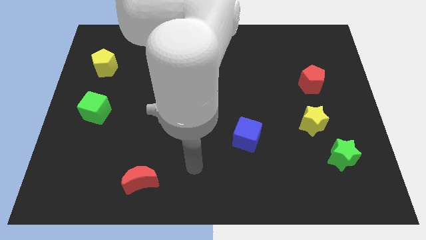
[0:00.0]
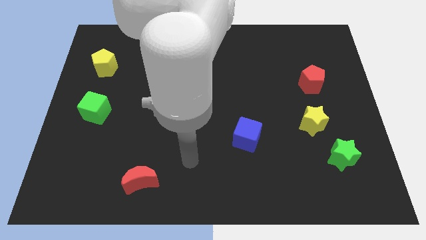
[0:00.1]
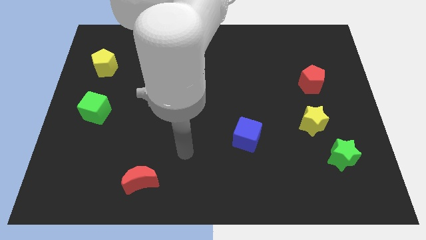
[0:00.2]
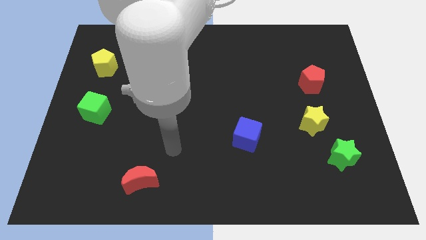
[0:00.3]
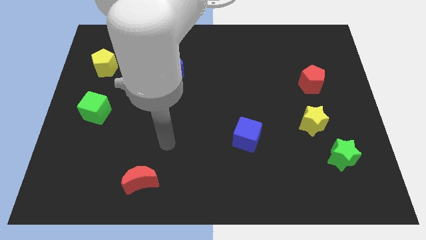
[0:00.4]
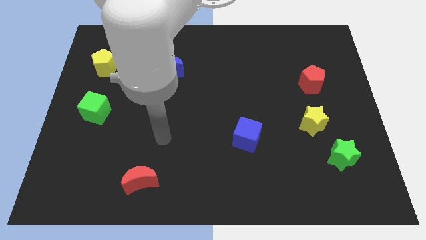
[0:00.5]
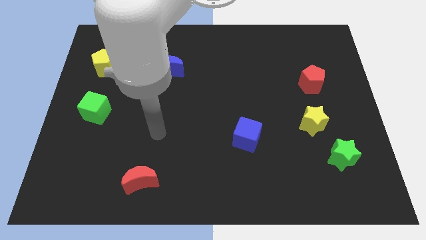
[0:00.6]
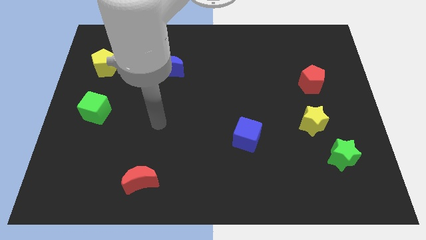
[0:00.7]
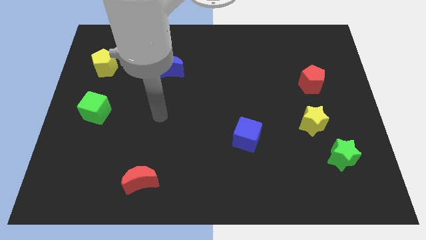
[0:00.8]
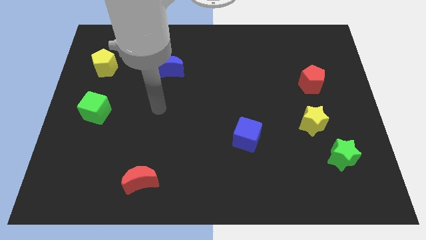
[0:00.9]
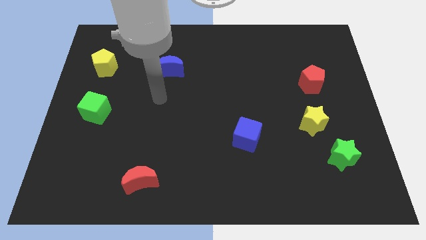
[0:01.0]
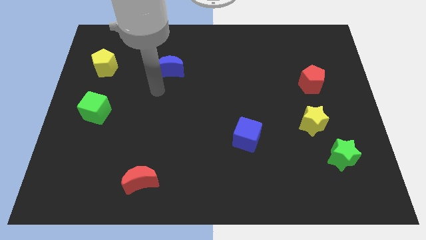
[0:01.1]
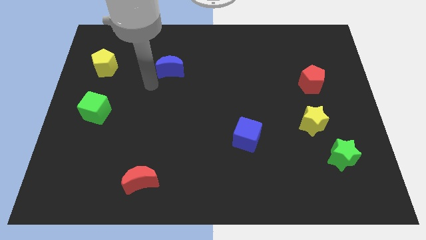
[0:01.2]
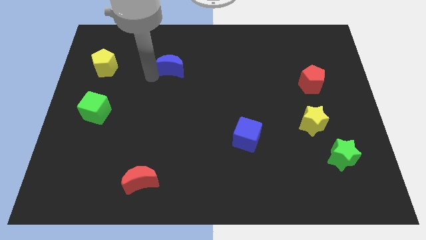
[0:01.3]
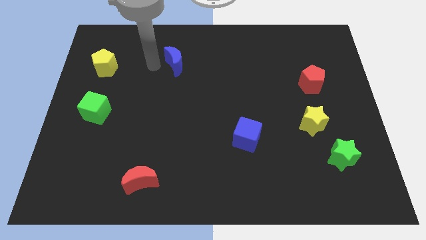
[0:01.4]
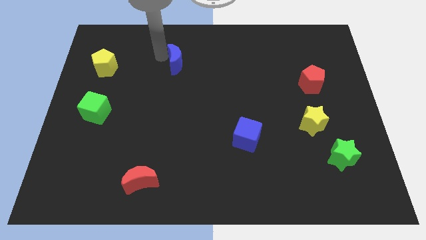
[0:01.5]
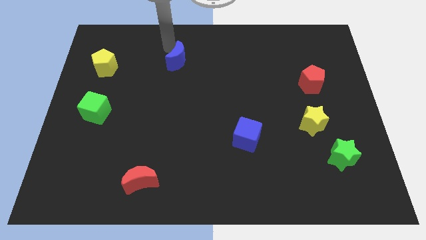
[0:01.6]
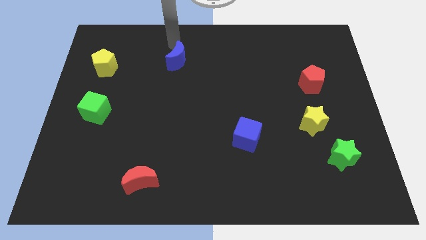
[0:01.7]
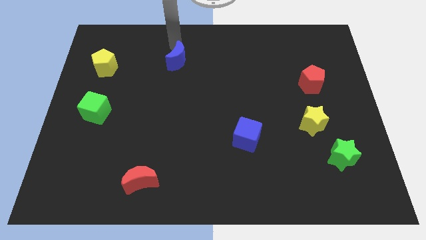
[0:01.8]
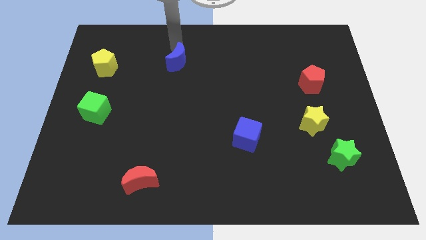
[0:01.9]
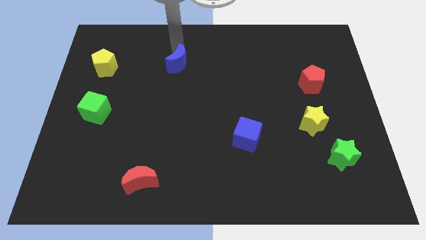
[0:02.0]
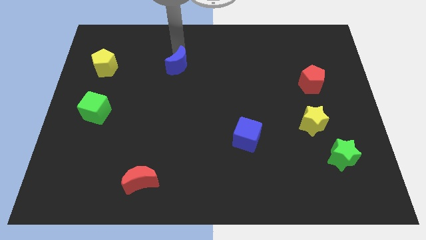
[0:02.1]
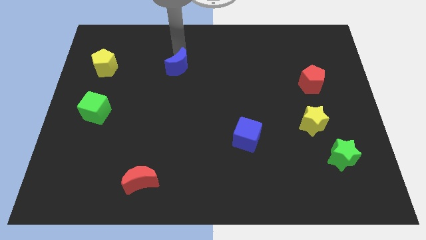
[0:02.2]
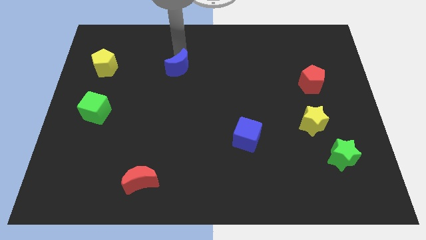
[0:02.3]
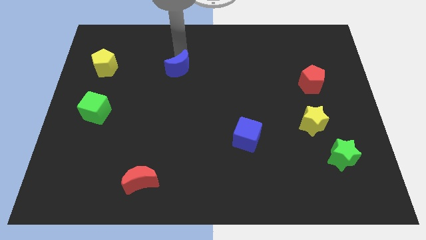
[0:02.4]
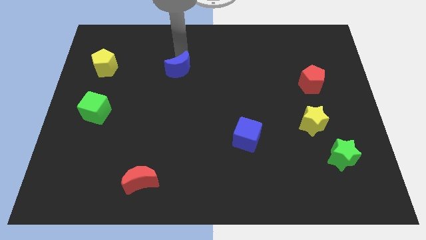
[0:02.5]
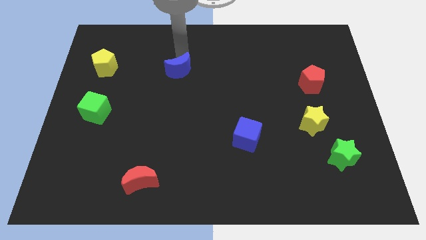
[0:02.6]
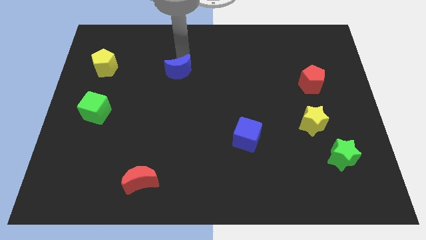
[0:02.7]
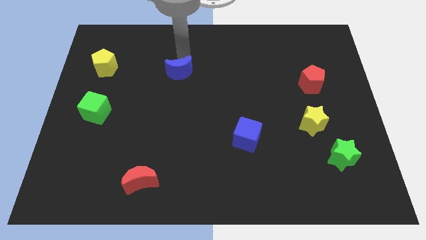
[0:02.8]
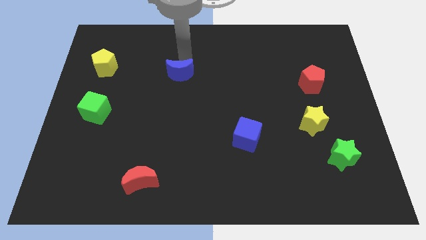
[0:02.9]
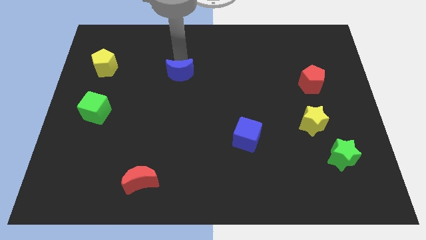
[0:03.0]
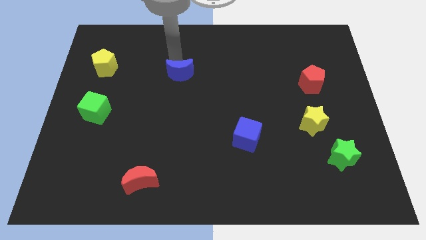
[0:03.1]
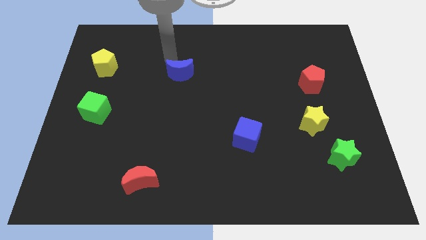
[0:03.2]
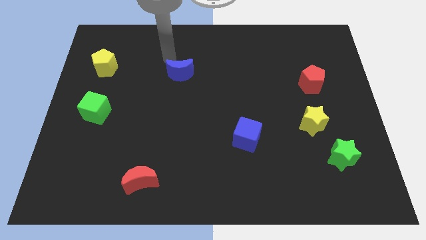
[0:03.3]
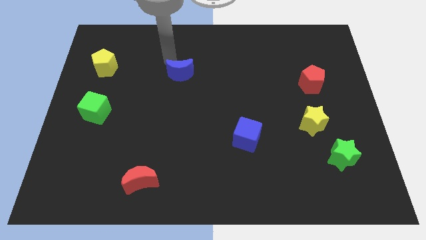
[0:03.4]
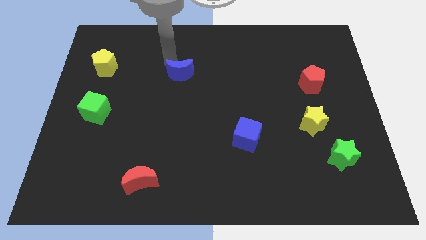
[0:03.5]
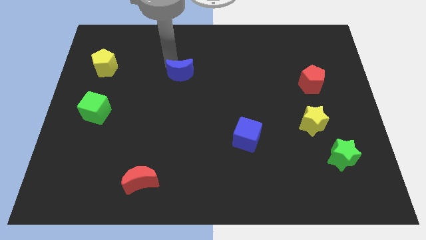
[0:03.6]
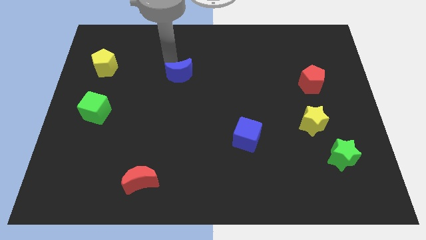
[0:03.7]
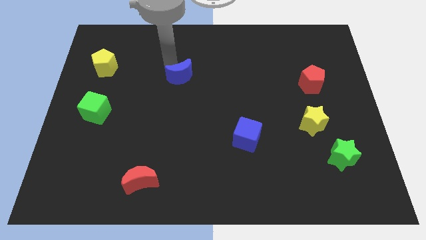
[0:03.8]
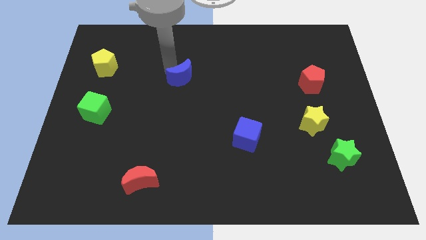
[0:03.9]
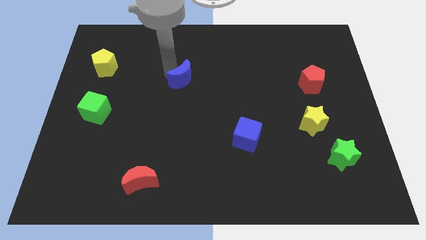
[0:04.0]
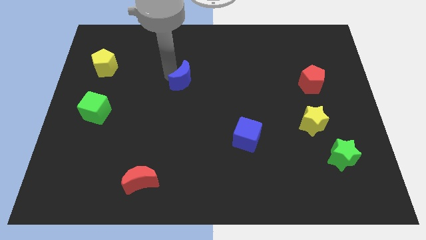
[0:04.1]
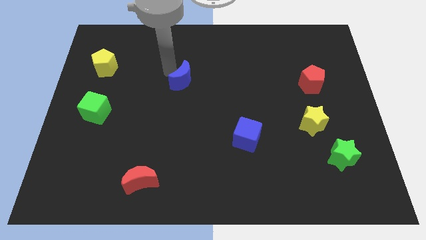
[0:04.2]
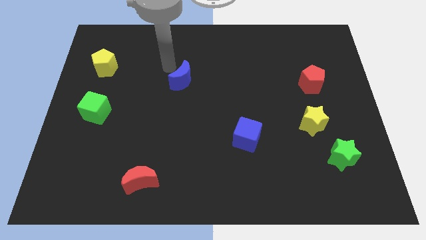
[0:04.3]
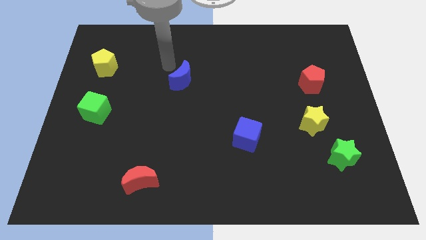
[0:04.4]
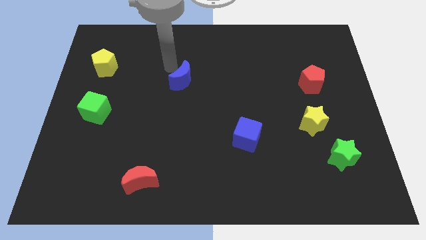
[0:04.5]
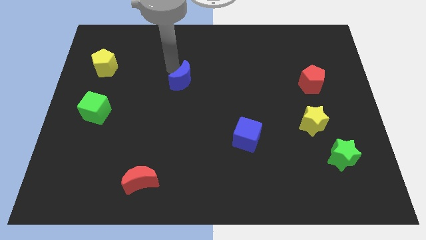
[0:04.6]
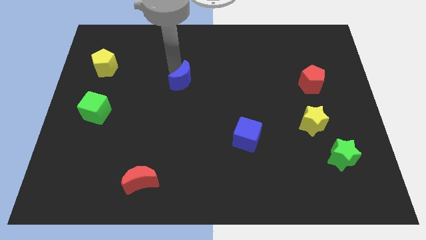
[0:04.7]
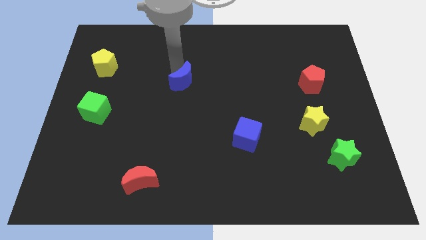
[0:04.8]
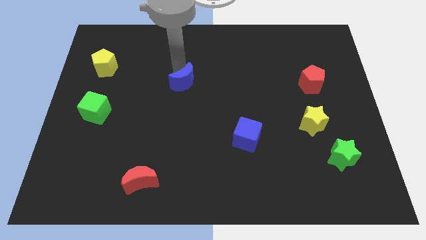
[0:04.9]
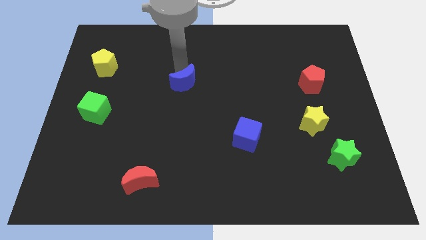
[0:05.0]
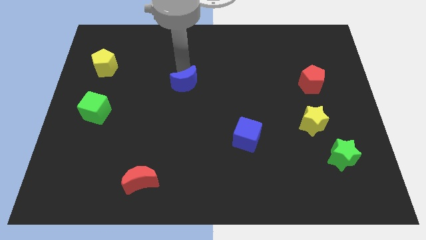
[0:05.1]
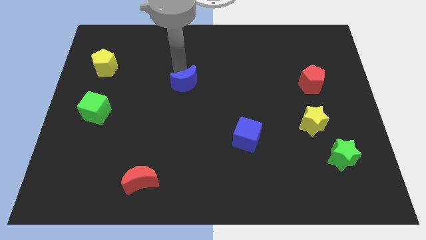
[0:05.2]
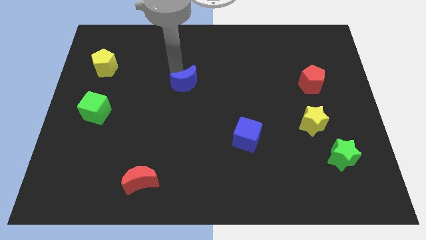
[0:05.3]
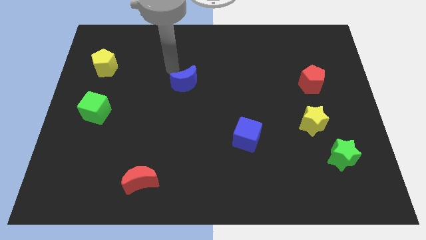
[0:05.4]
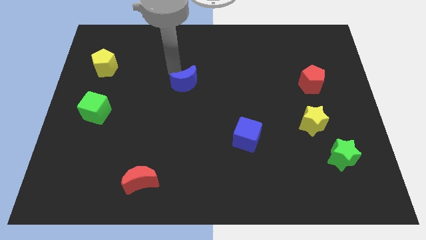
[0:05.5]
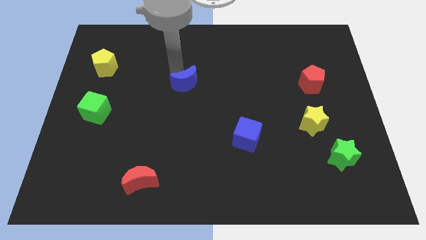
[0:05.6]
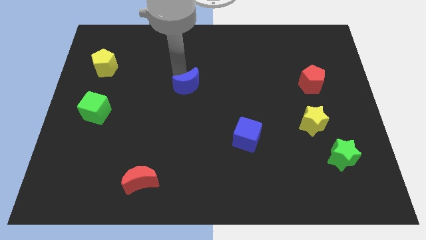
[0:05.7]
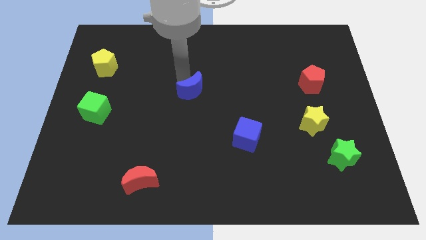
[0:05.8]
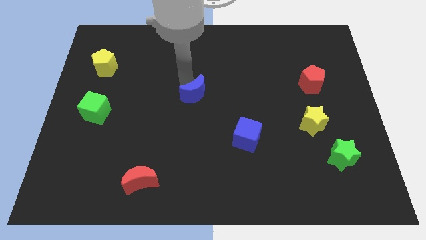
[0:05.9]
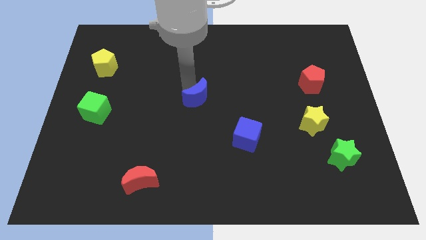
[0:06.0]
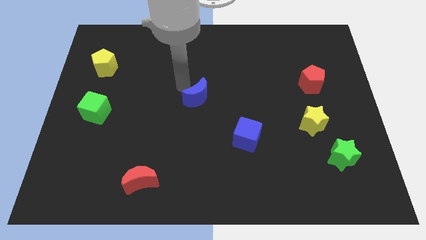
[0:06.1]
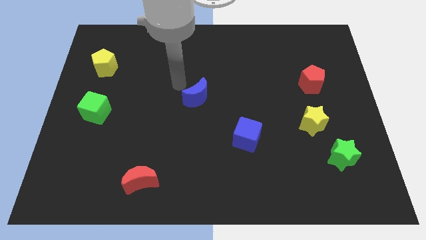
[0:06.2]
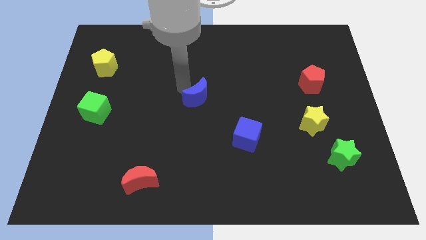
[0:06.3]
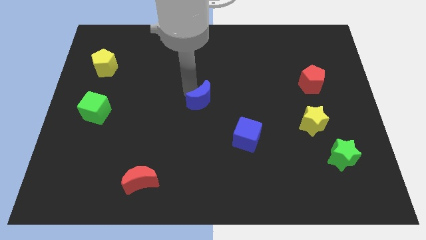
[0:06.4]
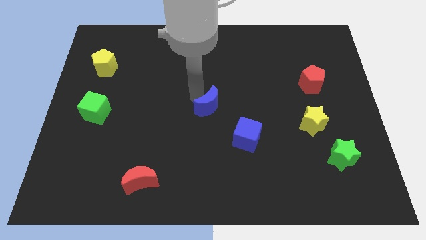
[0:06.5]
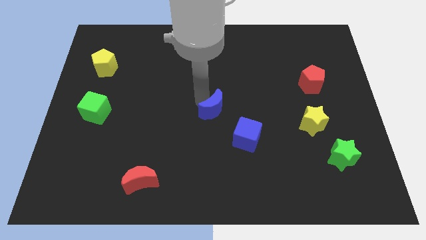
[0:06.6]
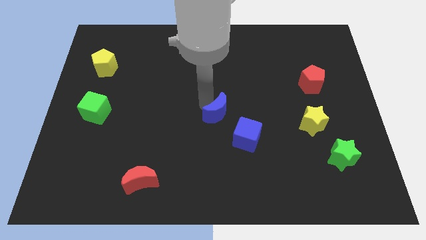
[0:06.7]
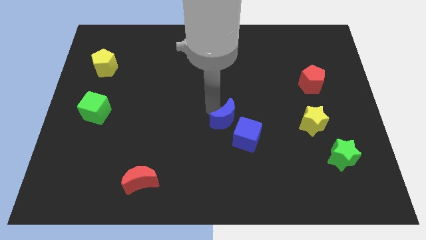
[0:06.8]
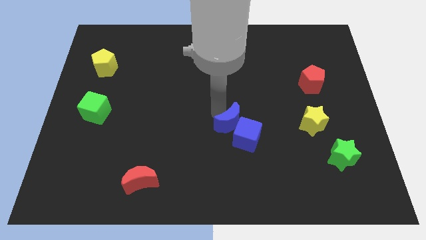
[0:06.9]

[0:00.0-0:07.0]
put the blue moon to the blue cube
